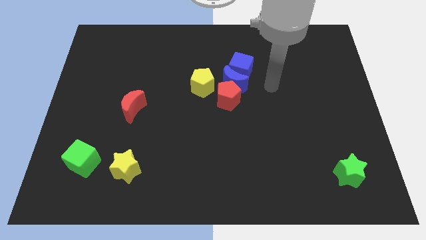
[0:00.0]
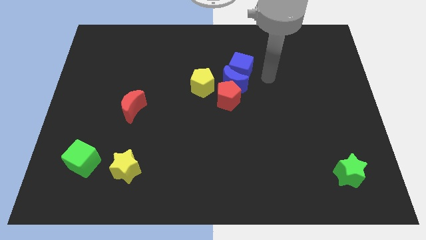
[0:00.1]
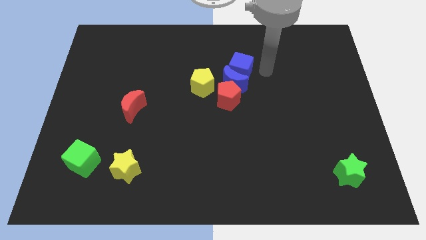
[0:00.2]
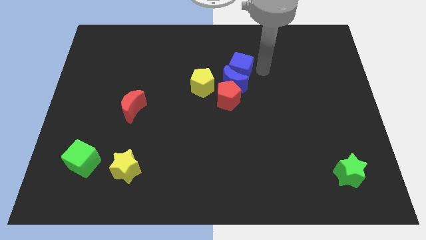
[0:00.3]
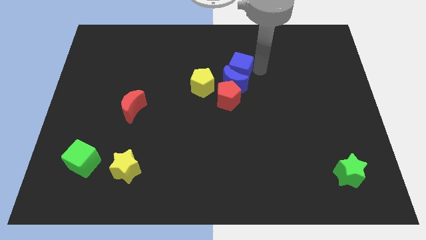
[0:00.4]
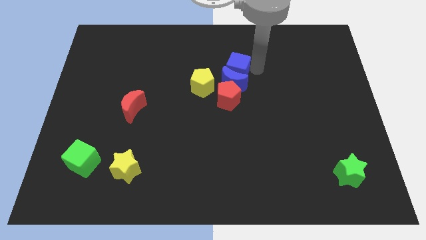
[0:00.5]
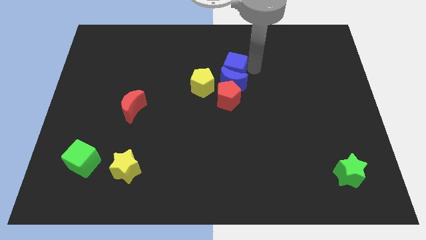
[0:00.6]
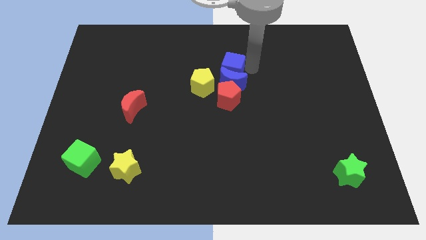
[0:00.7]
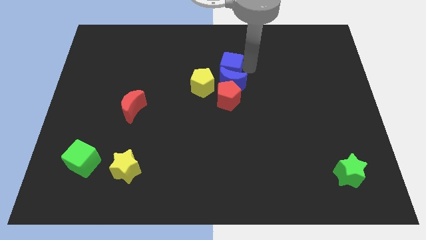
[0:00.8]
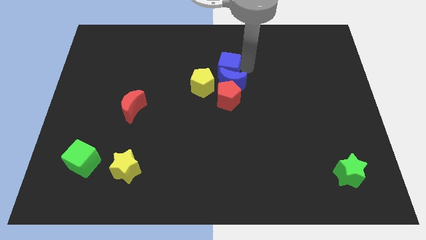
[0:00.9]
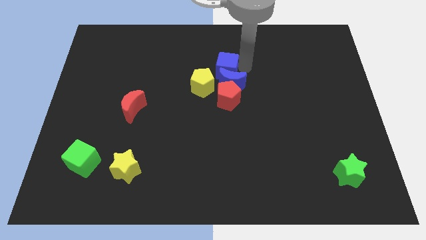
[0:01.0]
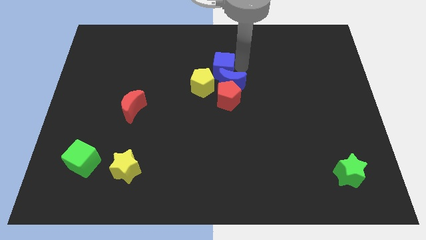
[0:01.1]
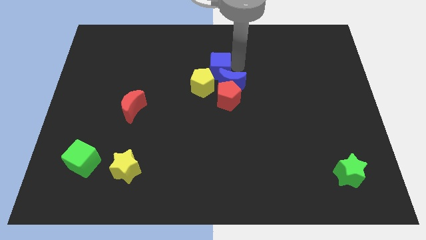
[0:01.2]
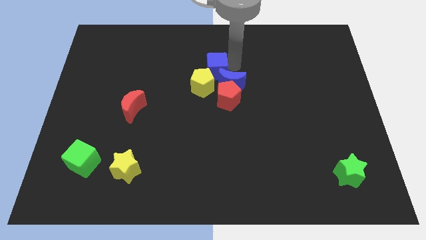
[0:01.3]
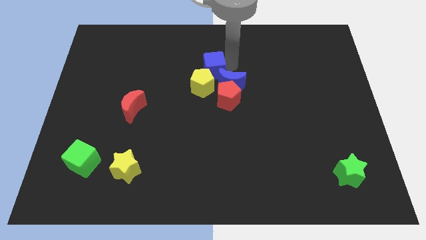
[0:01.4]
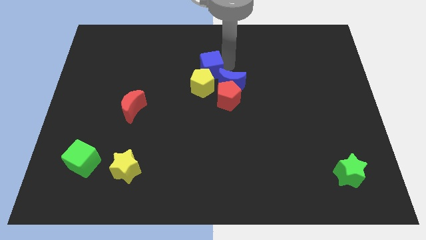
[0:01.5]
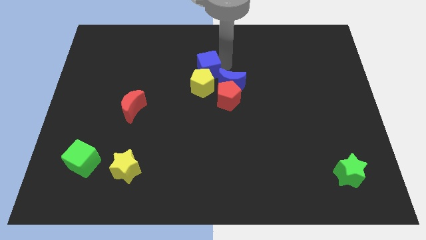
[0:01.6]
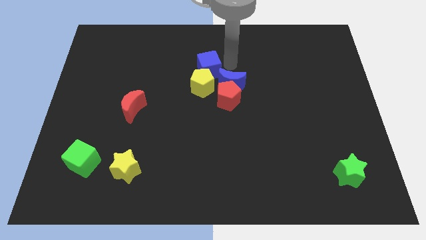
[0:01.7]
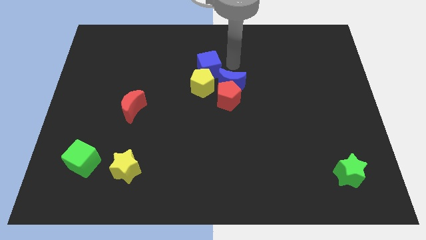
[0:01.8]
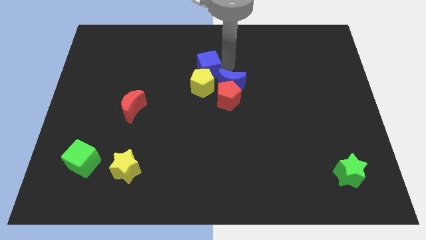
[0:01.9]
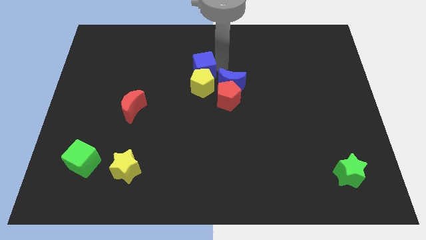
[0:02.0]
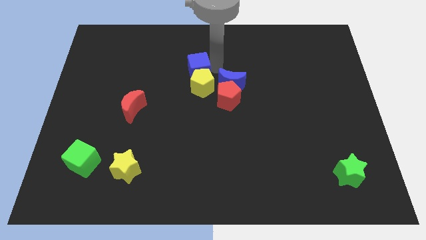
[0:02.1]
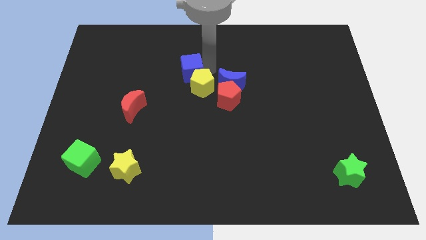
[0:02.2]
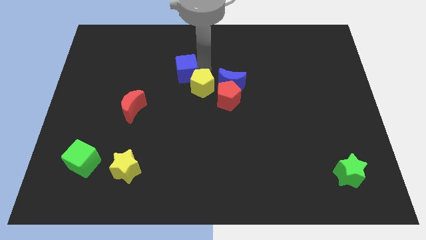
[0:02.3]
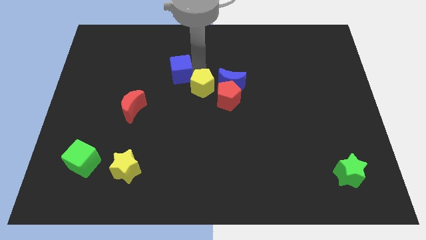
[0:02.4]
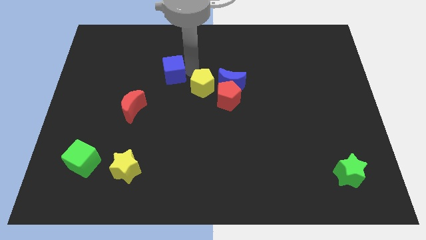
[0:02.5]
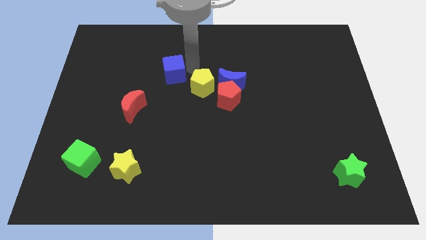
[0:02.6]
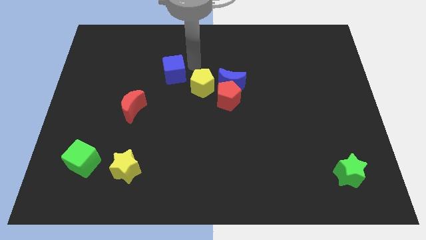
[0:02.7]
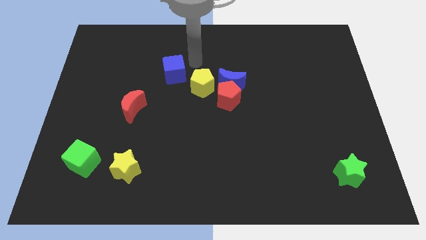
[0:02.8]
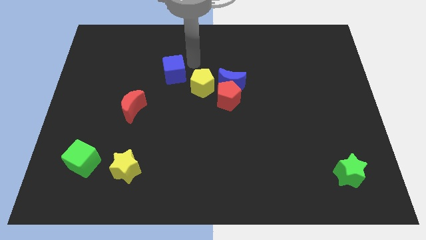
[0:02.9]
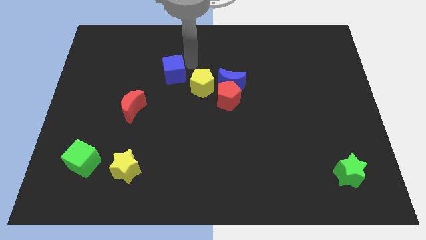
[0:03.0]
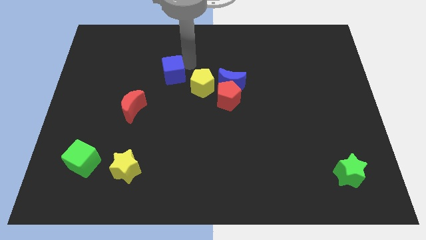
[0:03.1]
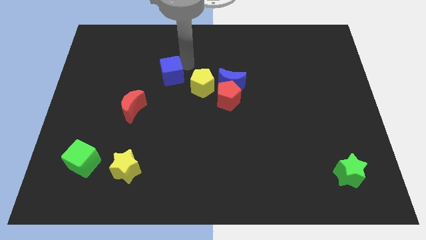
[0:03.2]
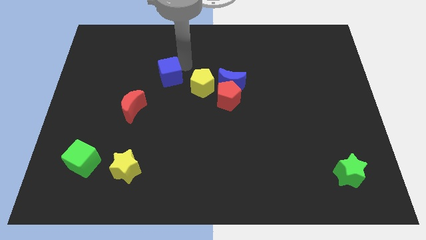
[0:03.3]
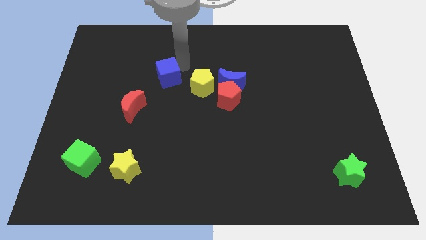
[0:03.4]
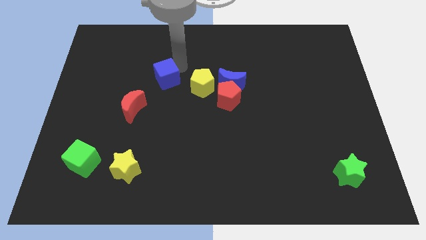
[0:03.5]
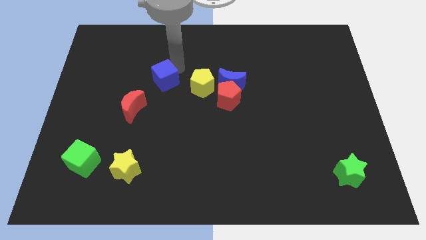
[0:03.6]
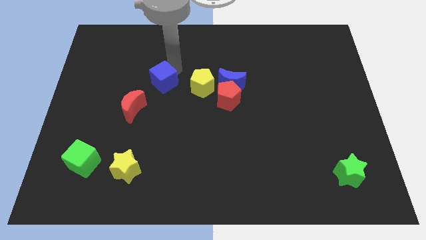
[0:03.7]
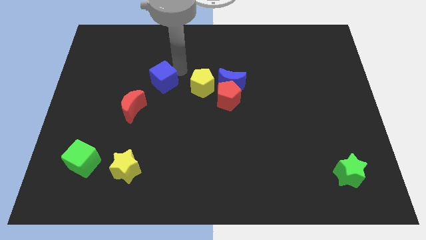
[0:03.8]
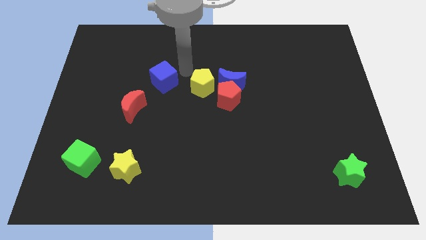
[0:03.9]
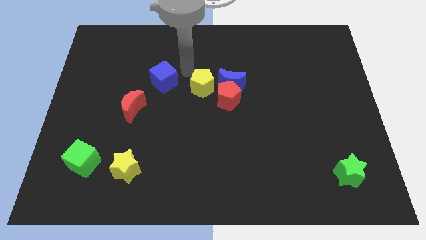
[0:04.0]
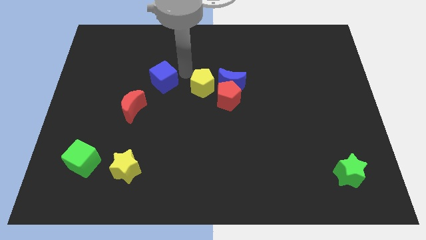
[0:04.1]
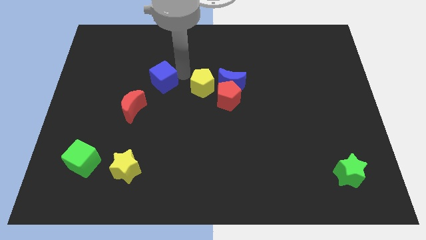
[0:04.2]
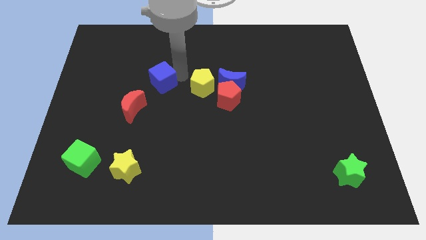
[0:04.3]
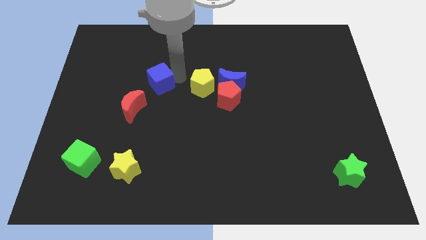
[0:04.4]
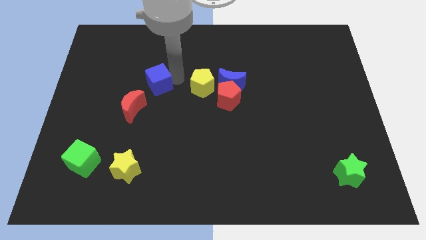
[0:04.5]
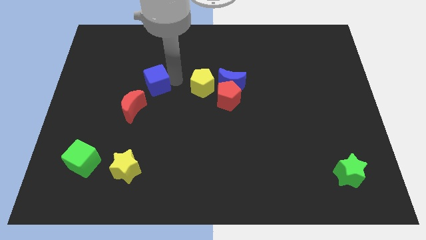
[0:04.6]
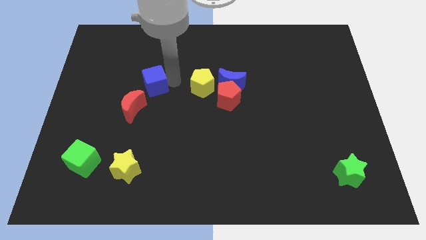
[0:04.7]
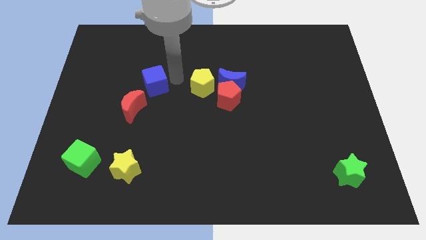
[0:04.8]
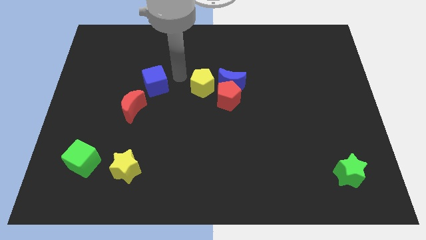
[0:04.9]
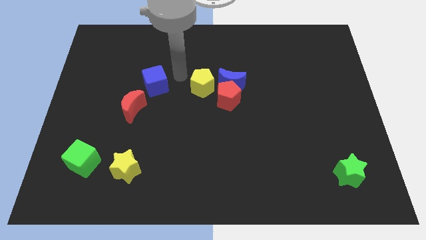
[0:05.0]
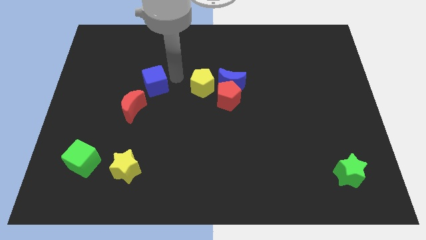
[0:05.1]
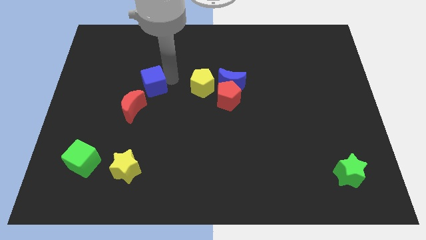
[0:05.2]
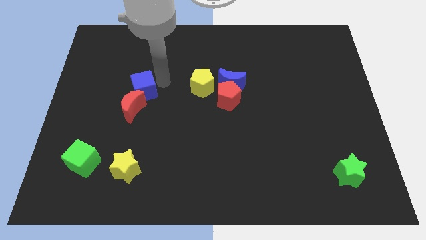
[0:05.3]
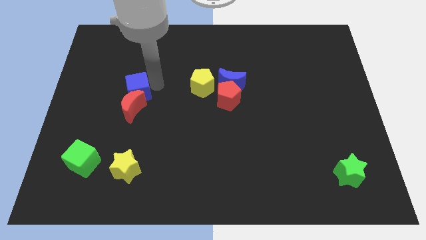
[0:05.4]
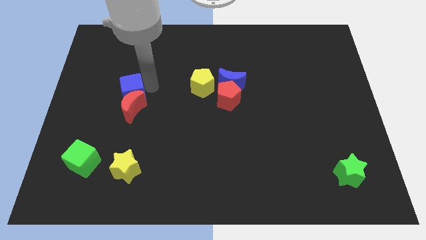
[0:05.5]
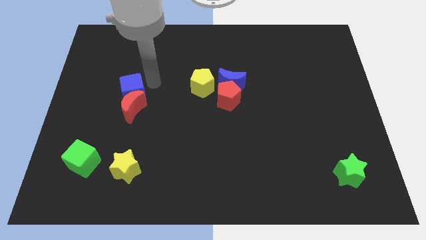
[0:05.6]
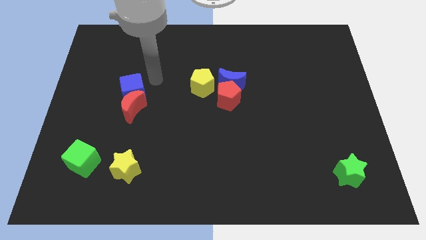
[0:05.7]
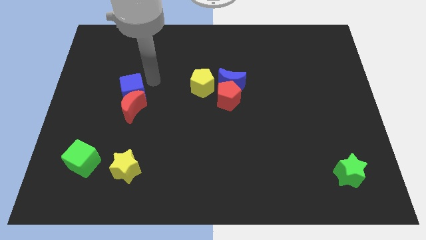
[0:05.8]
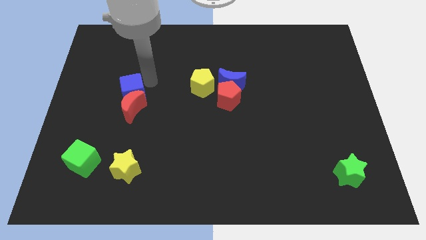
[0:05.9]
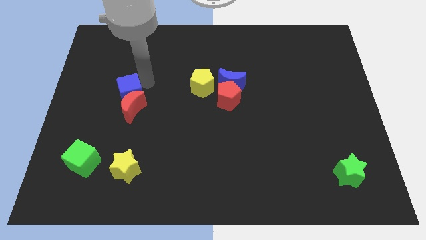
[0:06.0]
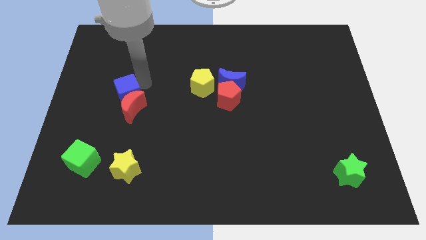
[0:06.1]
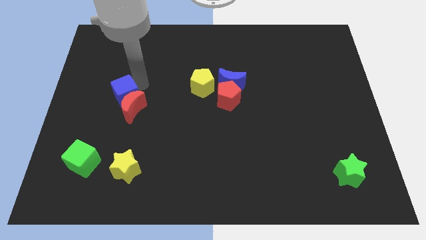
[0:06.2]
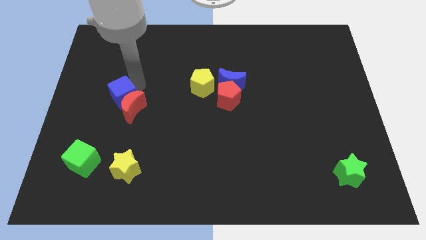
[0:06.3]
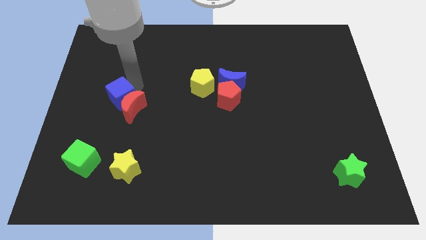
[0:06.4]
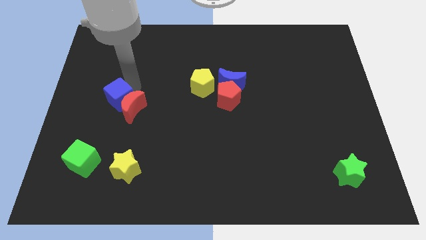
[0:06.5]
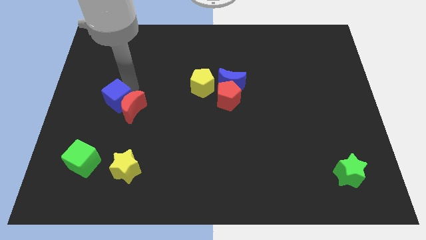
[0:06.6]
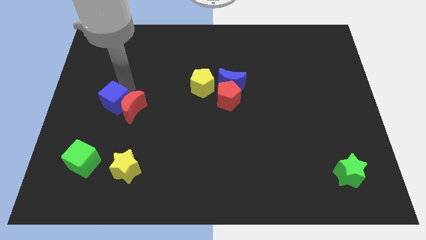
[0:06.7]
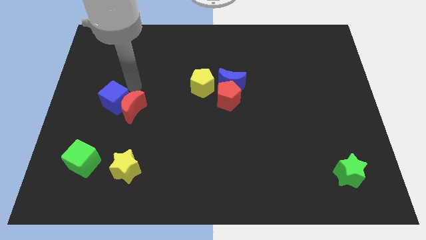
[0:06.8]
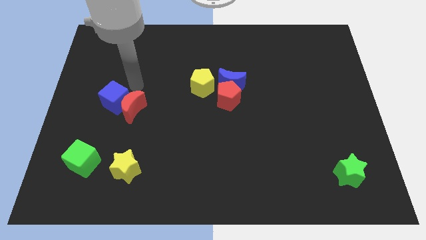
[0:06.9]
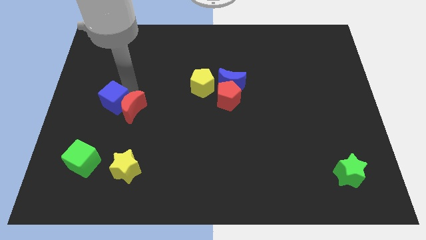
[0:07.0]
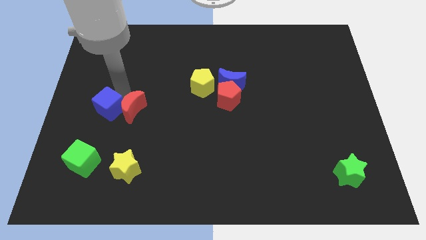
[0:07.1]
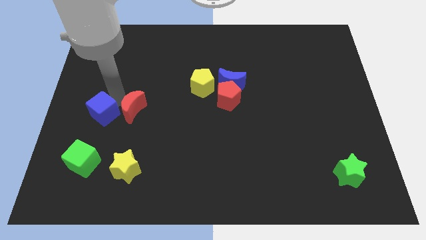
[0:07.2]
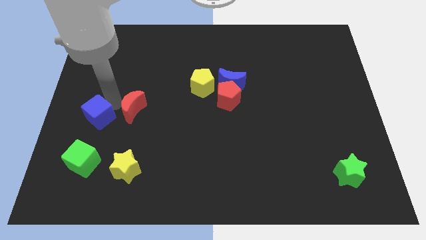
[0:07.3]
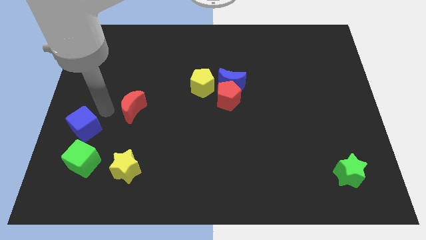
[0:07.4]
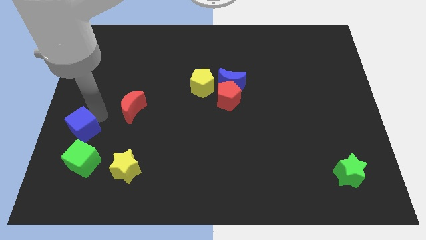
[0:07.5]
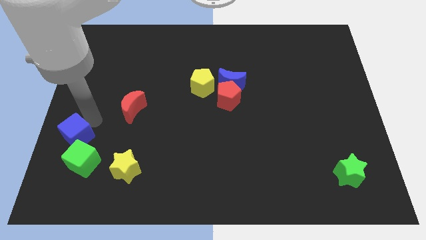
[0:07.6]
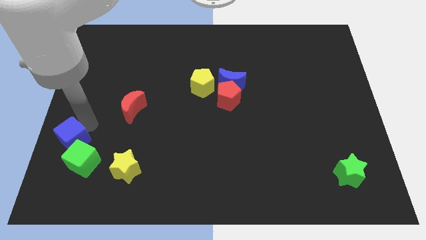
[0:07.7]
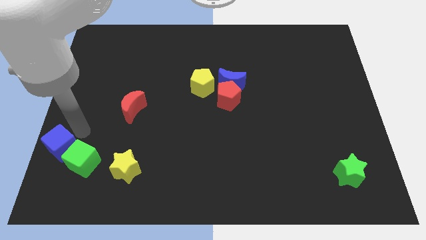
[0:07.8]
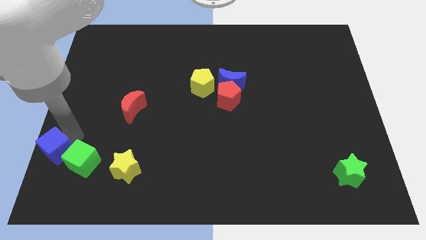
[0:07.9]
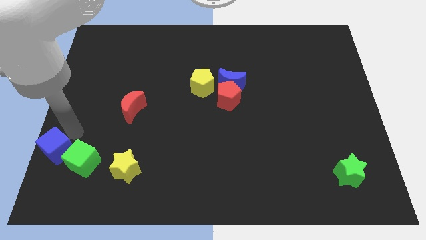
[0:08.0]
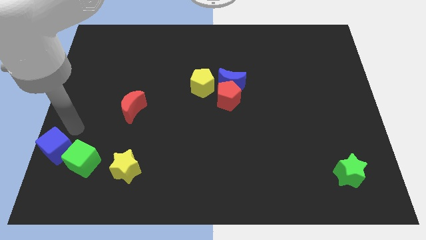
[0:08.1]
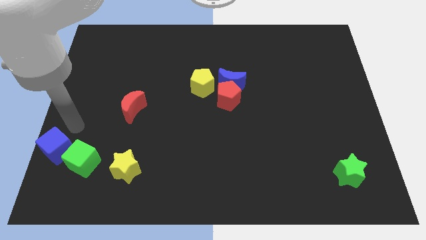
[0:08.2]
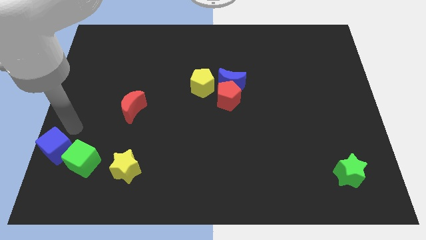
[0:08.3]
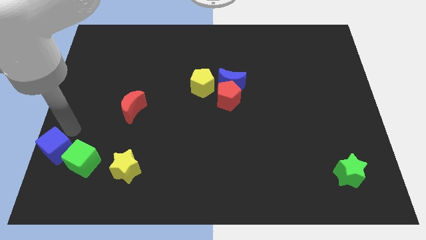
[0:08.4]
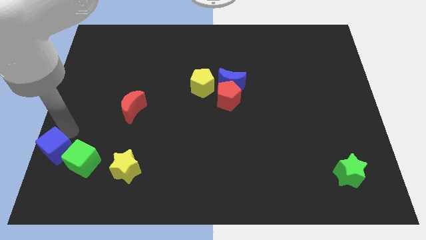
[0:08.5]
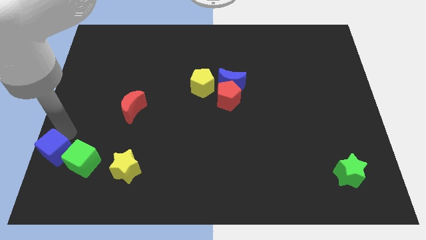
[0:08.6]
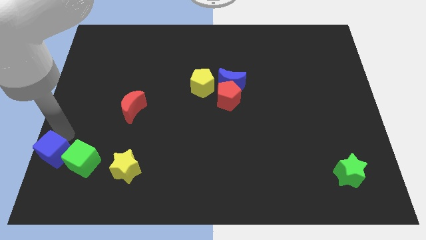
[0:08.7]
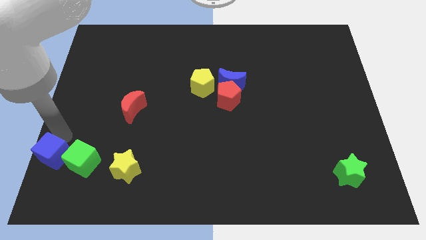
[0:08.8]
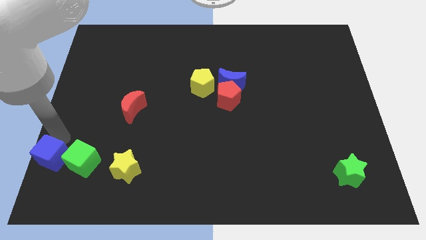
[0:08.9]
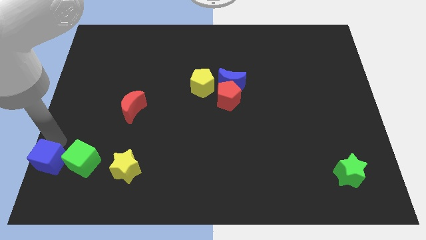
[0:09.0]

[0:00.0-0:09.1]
put the blue cube to the bottom left corner
